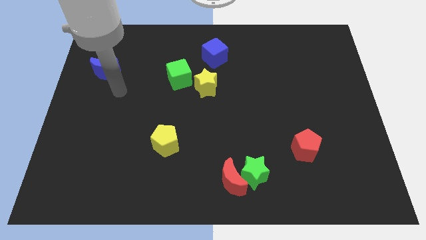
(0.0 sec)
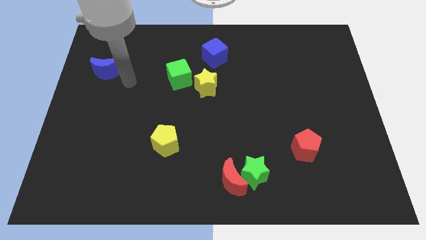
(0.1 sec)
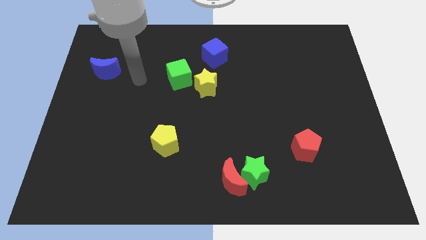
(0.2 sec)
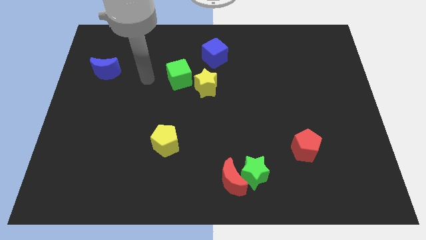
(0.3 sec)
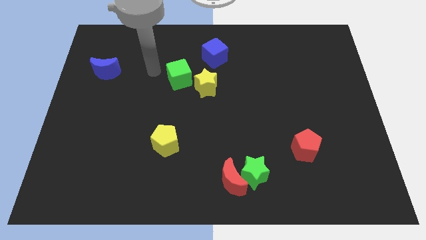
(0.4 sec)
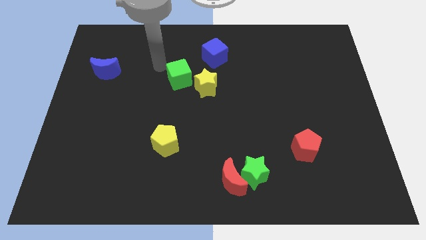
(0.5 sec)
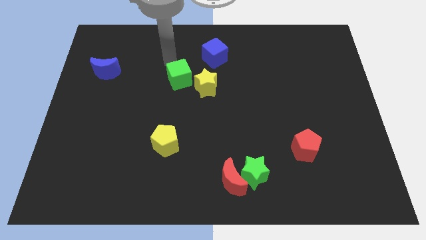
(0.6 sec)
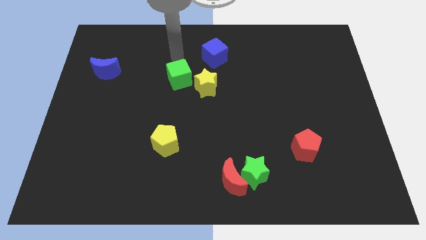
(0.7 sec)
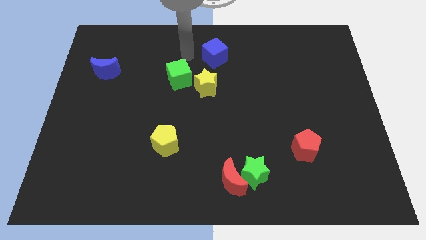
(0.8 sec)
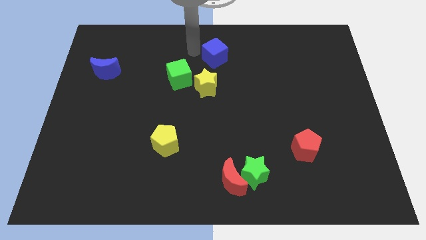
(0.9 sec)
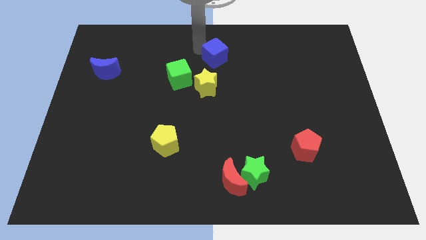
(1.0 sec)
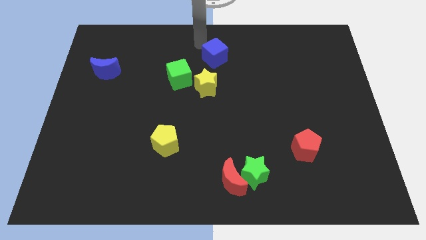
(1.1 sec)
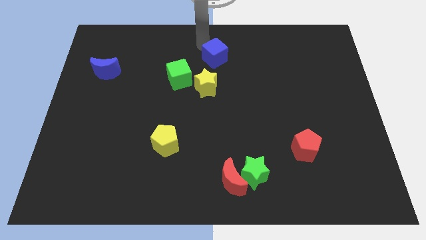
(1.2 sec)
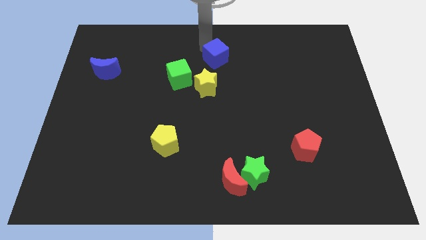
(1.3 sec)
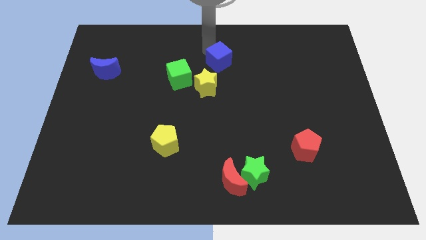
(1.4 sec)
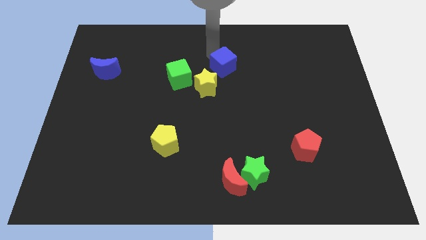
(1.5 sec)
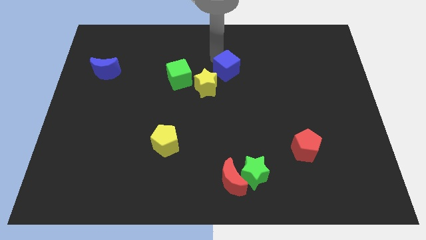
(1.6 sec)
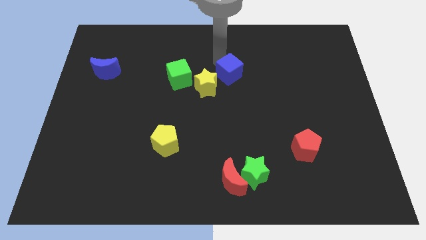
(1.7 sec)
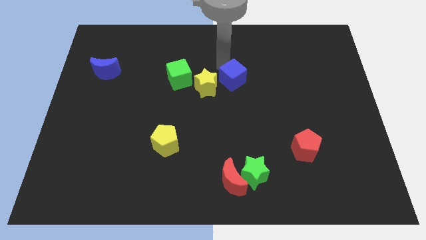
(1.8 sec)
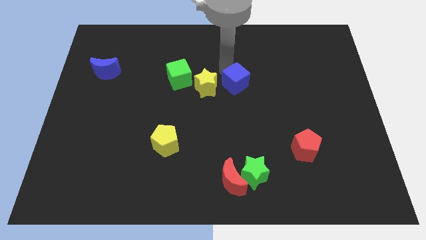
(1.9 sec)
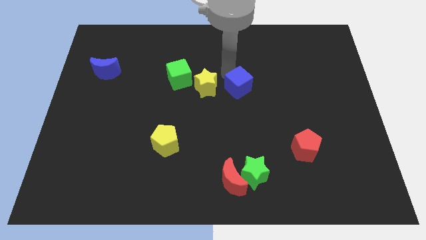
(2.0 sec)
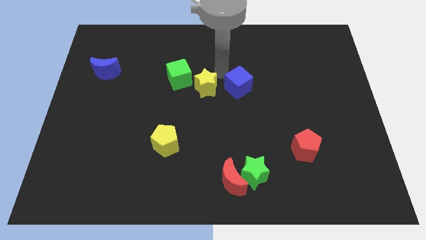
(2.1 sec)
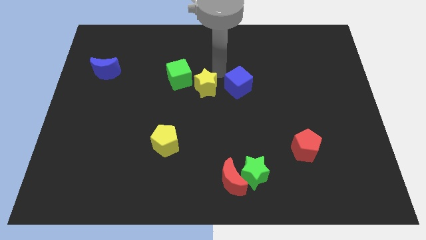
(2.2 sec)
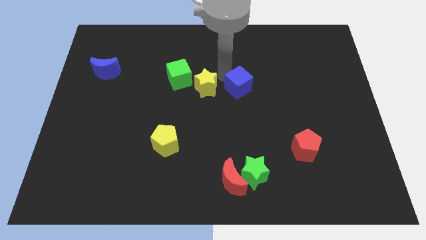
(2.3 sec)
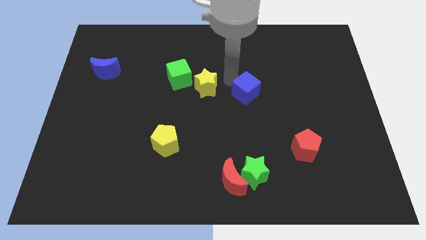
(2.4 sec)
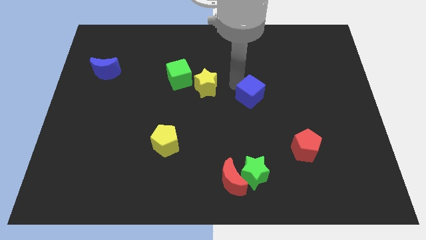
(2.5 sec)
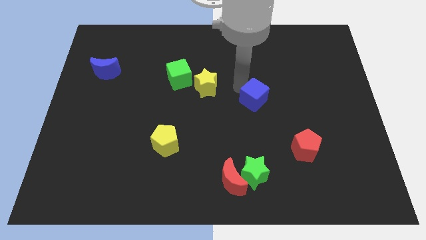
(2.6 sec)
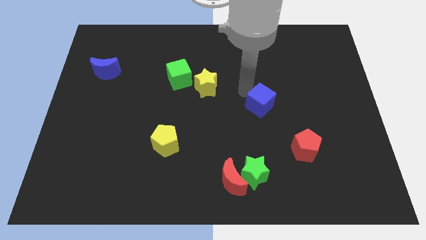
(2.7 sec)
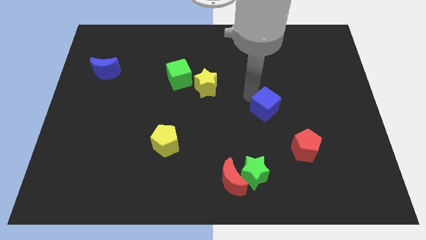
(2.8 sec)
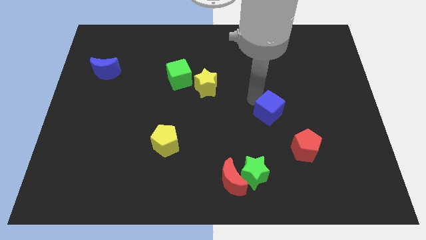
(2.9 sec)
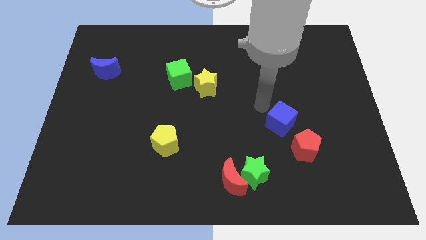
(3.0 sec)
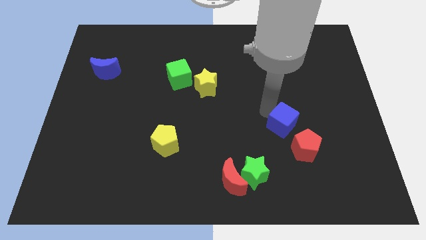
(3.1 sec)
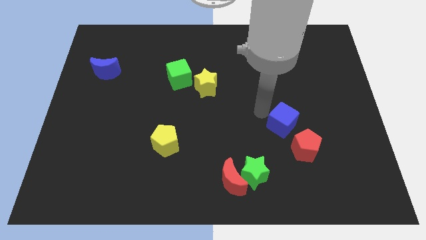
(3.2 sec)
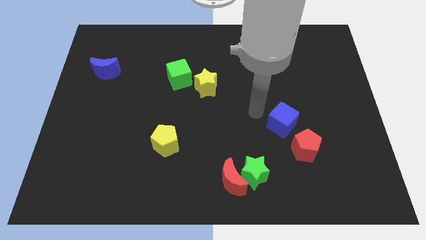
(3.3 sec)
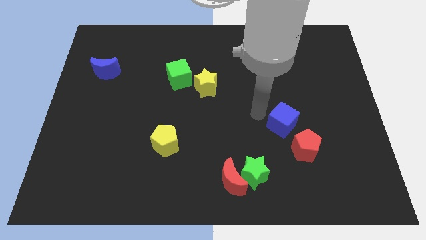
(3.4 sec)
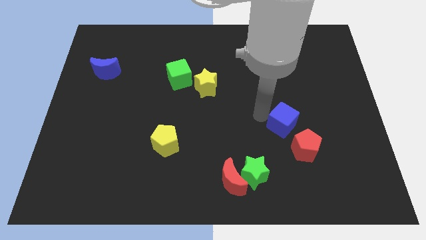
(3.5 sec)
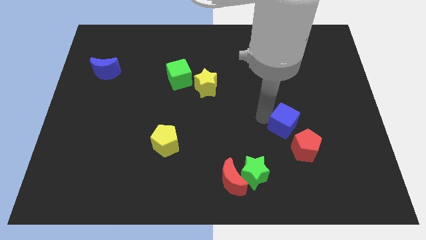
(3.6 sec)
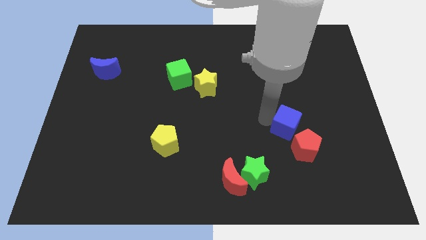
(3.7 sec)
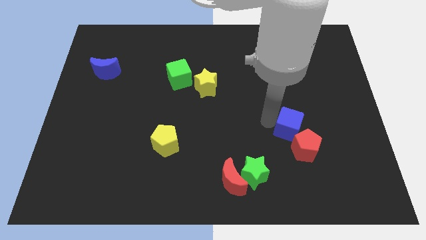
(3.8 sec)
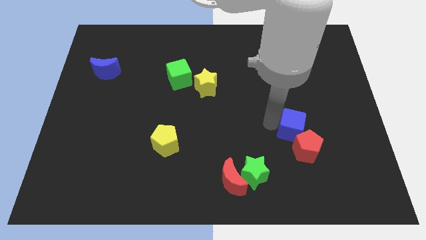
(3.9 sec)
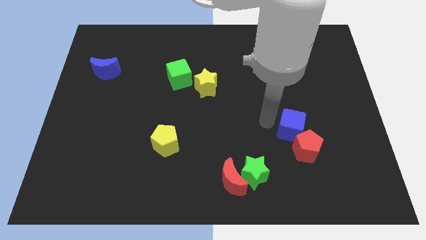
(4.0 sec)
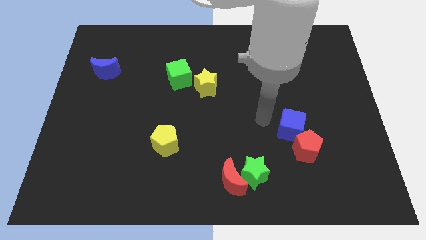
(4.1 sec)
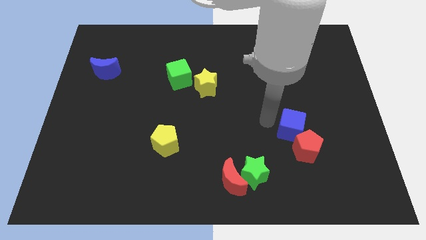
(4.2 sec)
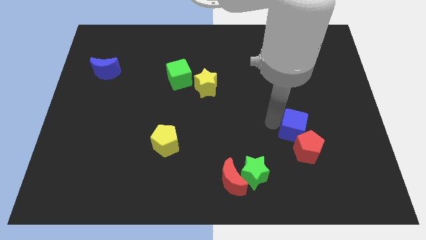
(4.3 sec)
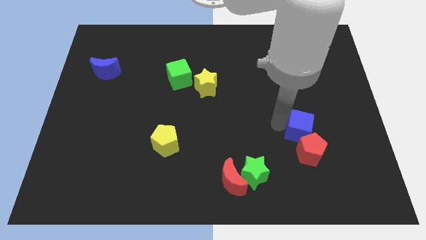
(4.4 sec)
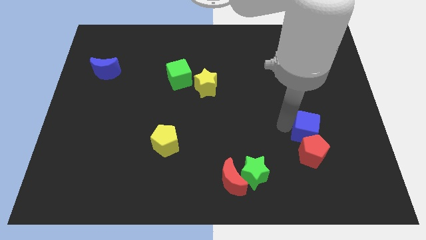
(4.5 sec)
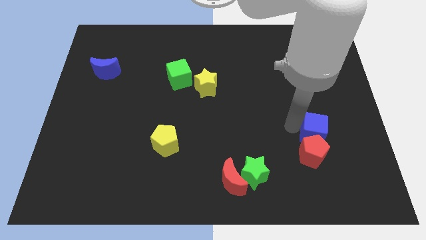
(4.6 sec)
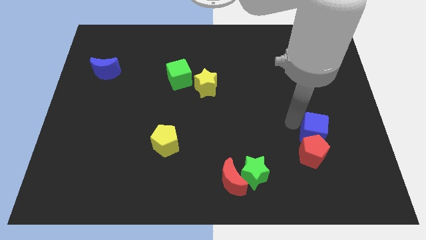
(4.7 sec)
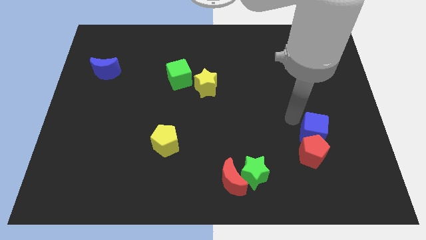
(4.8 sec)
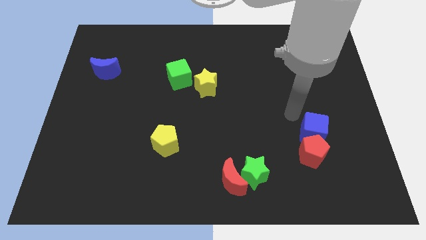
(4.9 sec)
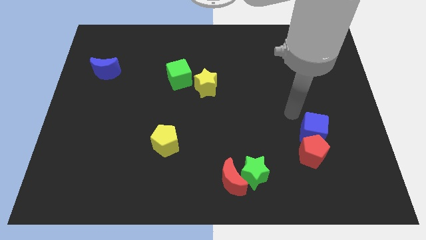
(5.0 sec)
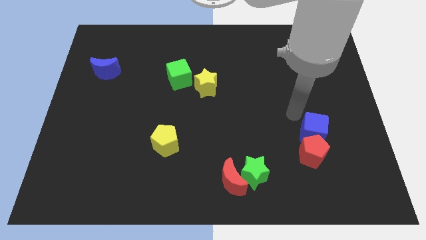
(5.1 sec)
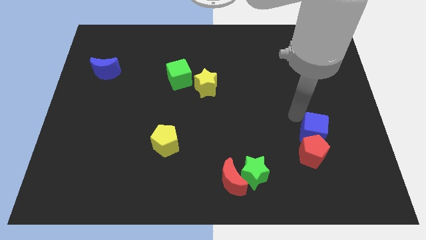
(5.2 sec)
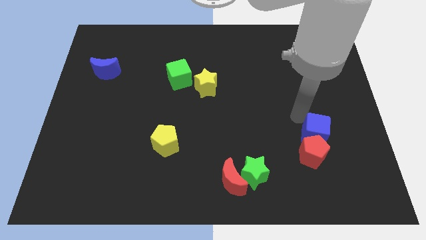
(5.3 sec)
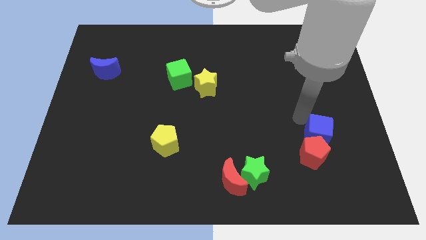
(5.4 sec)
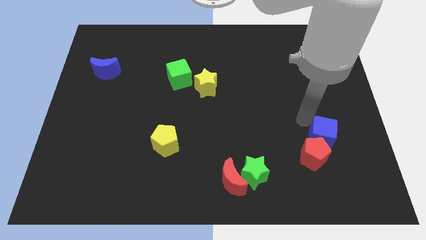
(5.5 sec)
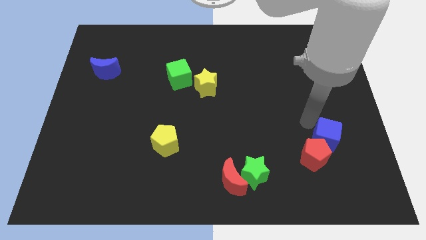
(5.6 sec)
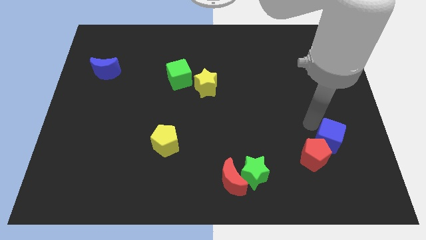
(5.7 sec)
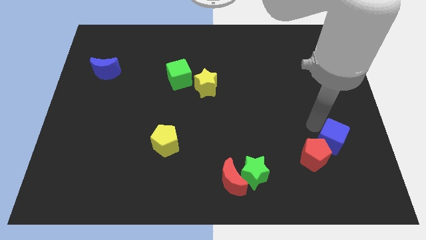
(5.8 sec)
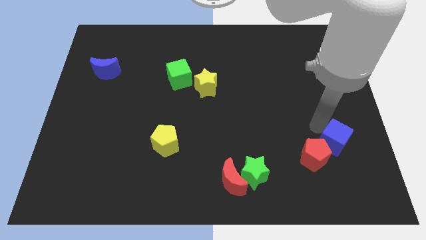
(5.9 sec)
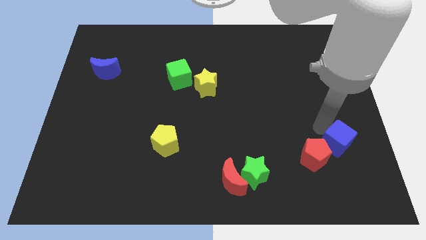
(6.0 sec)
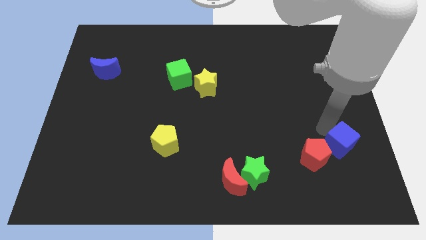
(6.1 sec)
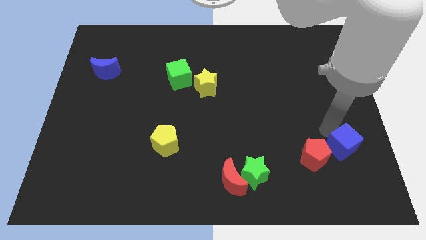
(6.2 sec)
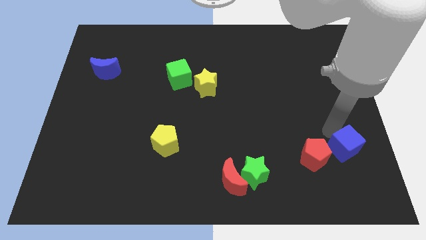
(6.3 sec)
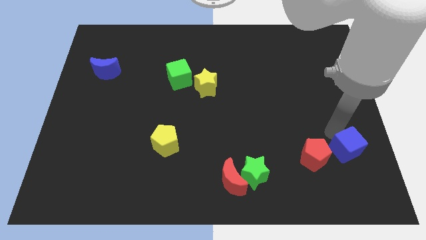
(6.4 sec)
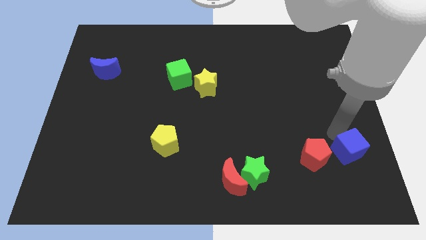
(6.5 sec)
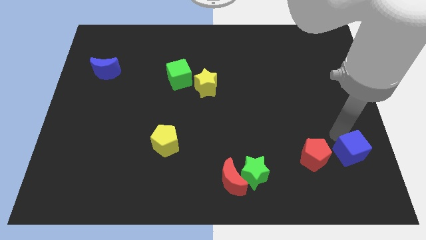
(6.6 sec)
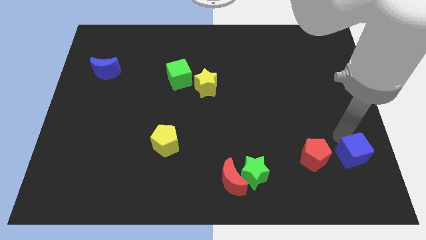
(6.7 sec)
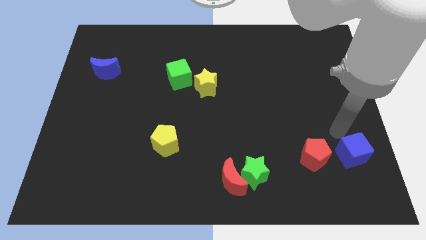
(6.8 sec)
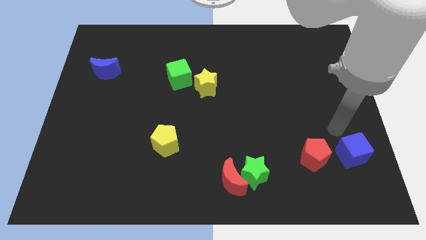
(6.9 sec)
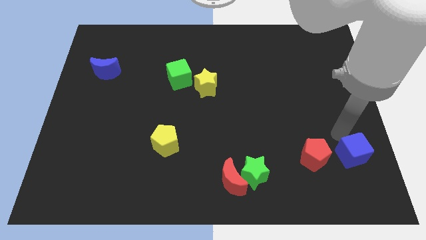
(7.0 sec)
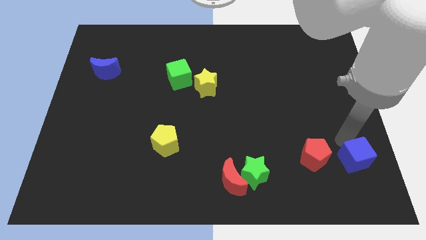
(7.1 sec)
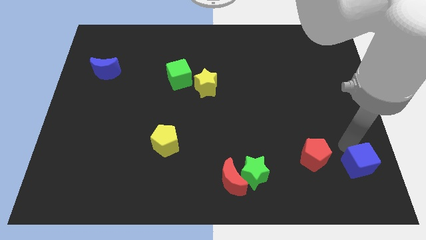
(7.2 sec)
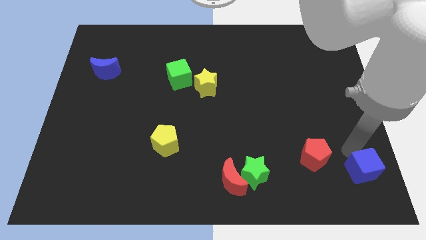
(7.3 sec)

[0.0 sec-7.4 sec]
slide the blue cube to the lower right corner
